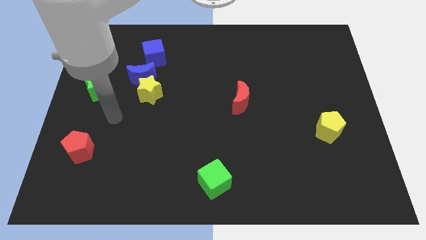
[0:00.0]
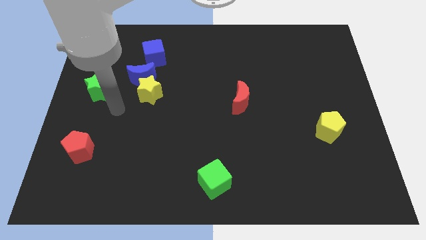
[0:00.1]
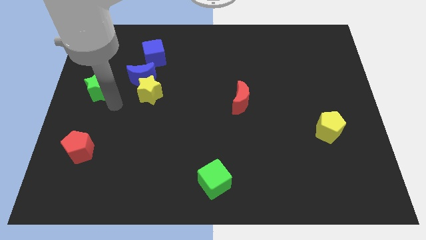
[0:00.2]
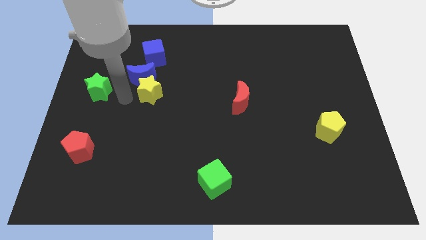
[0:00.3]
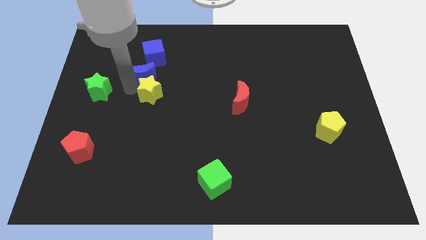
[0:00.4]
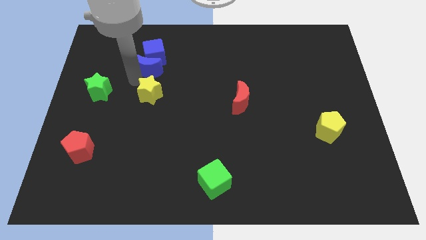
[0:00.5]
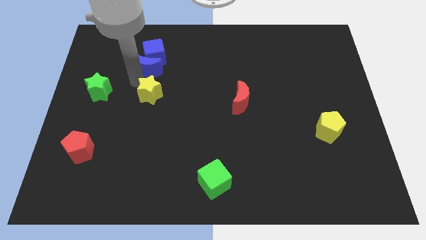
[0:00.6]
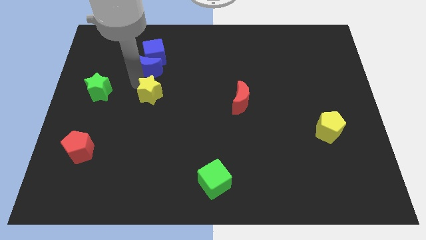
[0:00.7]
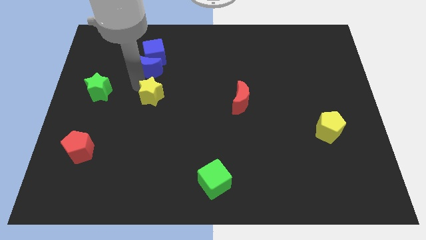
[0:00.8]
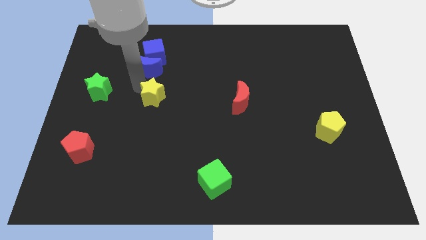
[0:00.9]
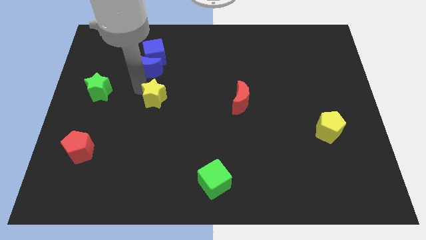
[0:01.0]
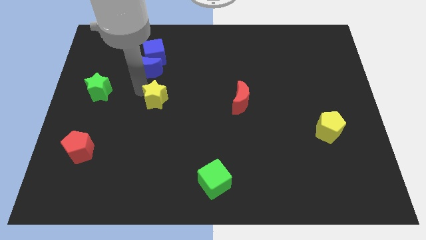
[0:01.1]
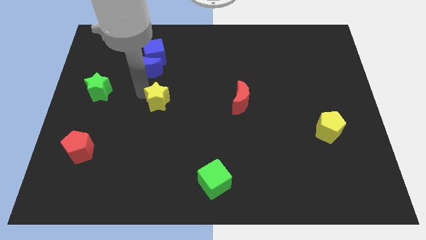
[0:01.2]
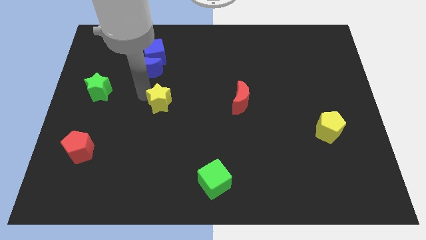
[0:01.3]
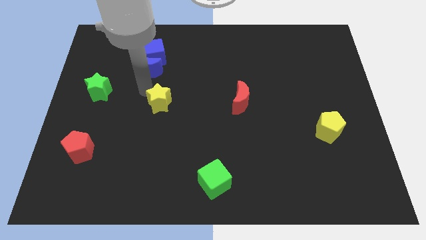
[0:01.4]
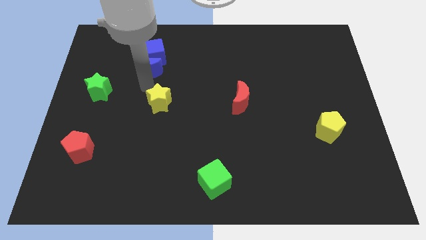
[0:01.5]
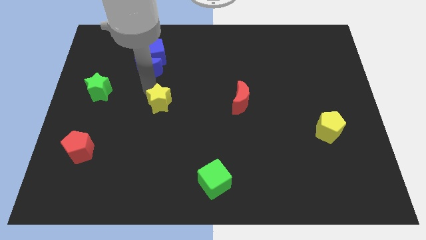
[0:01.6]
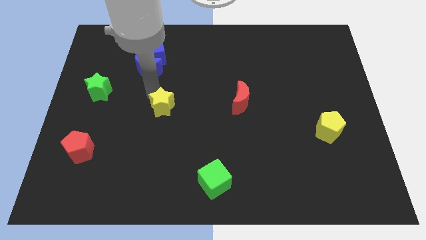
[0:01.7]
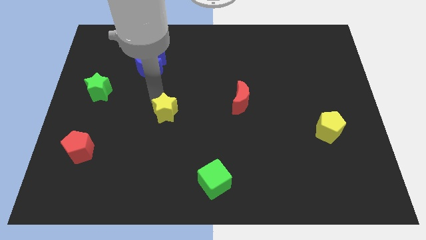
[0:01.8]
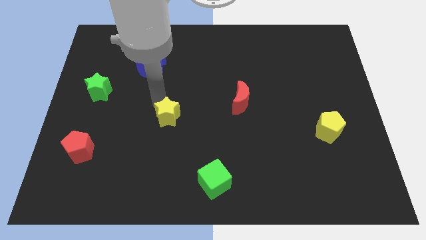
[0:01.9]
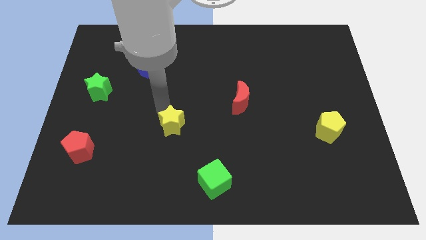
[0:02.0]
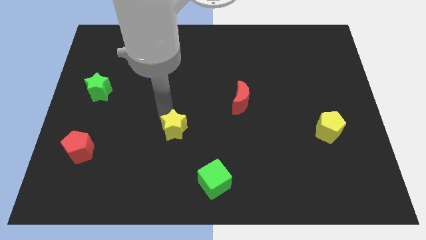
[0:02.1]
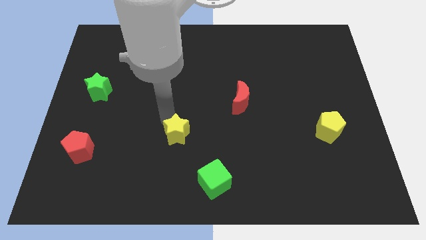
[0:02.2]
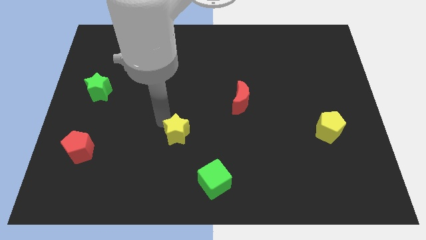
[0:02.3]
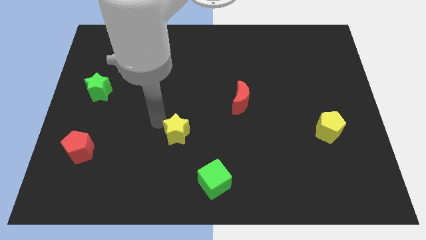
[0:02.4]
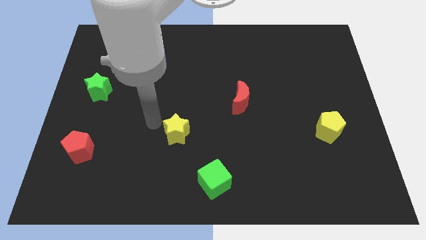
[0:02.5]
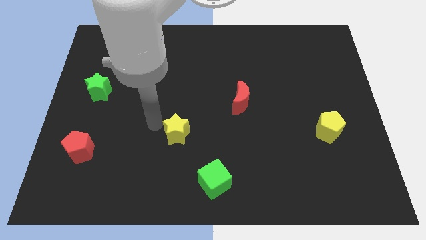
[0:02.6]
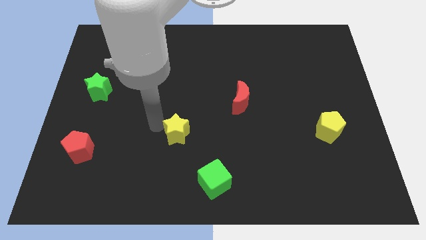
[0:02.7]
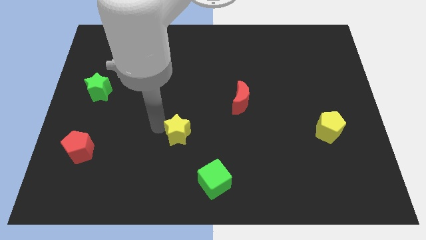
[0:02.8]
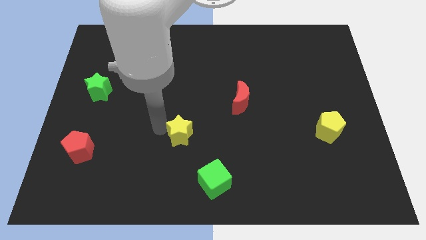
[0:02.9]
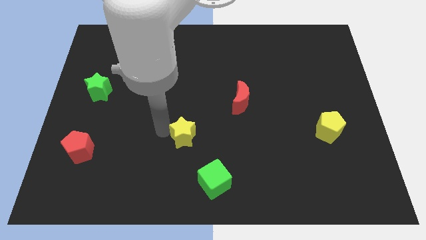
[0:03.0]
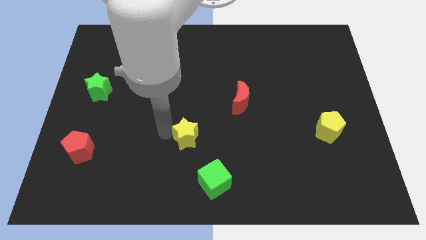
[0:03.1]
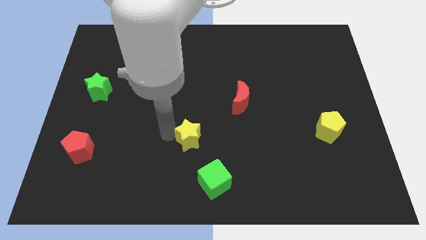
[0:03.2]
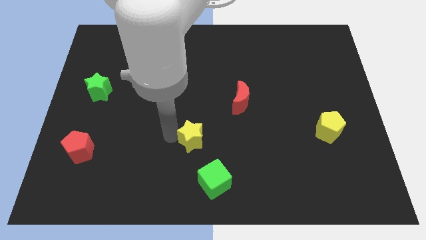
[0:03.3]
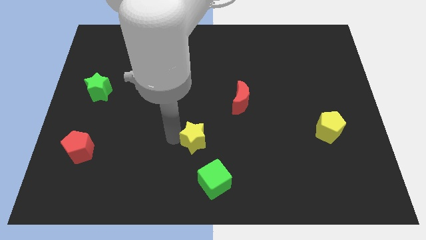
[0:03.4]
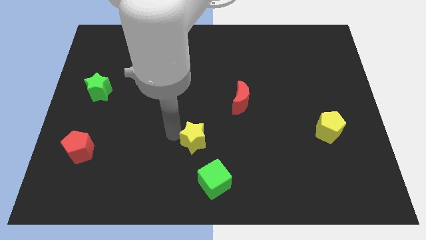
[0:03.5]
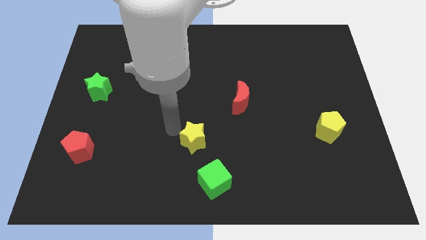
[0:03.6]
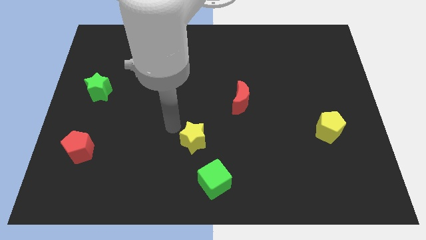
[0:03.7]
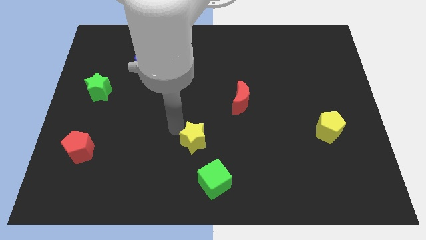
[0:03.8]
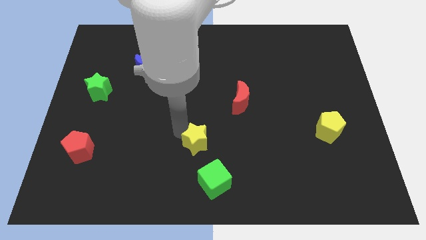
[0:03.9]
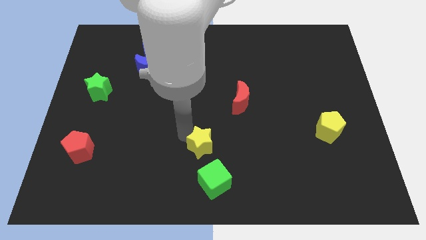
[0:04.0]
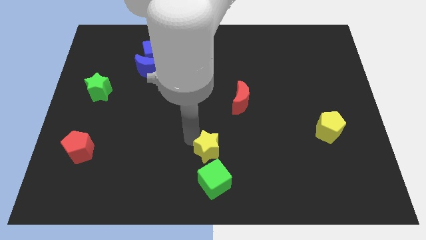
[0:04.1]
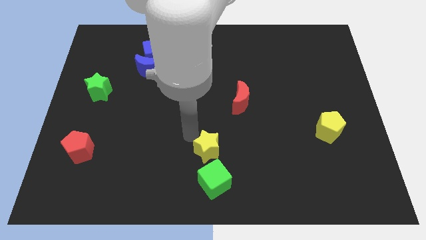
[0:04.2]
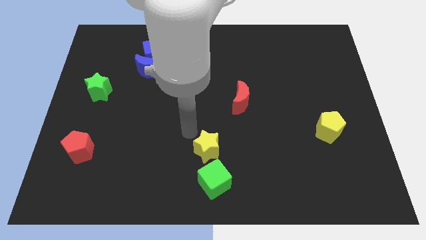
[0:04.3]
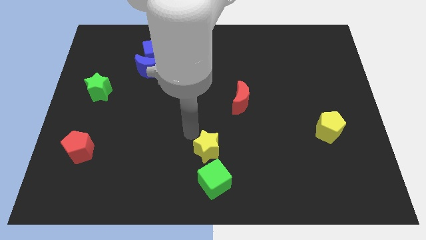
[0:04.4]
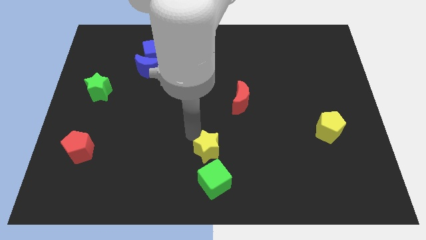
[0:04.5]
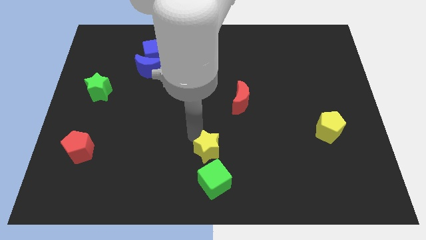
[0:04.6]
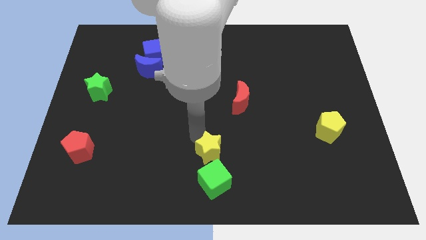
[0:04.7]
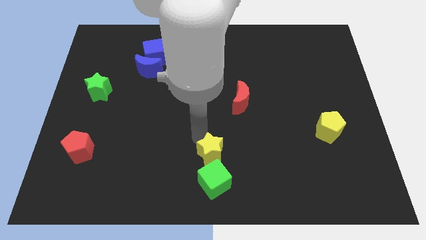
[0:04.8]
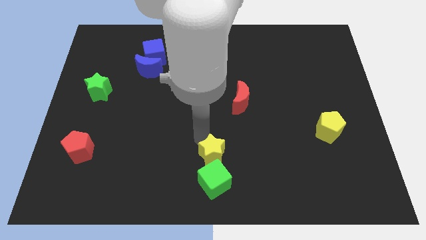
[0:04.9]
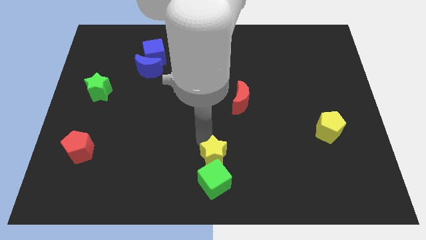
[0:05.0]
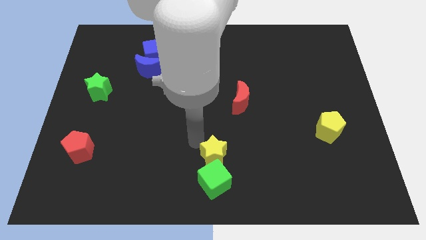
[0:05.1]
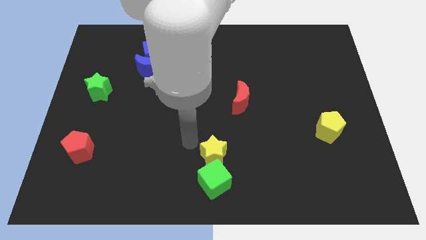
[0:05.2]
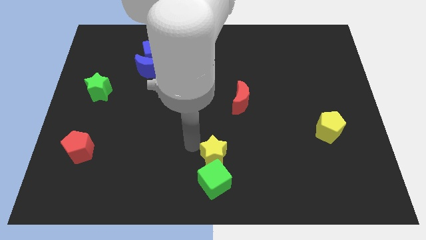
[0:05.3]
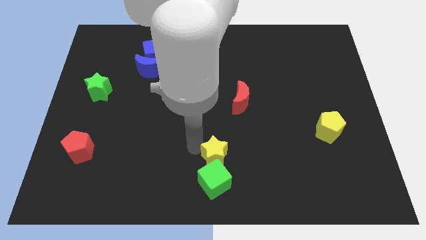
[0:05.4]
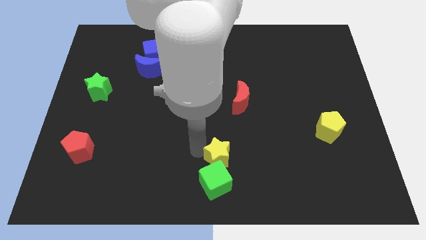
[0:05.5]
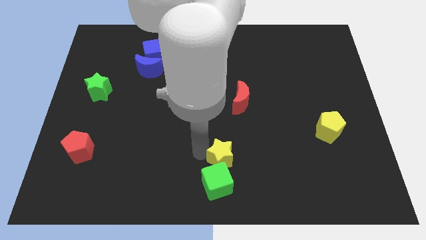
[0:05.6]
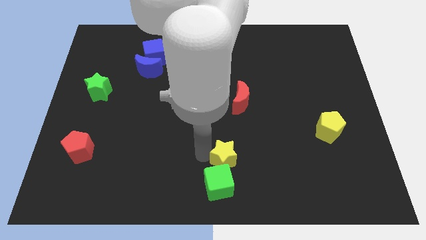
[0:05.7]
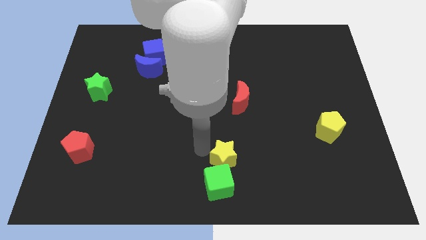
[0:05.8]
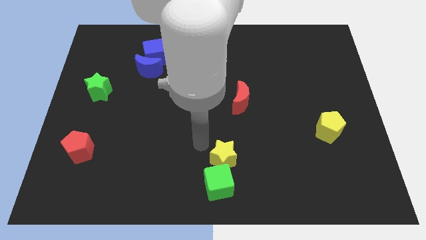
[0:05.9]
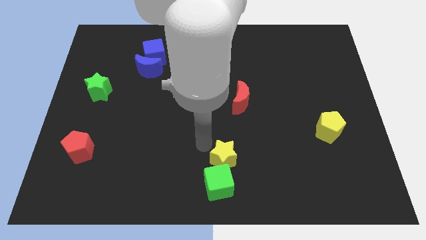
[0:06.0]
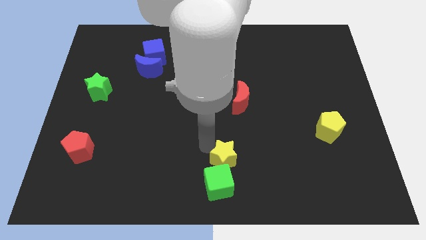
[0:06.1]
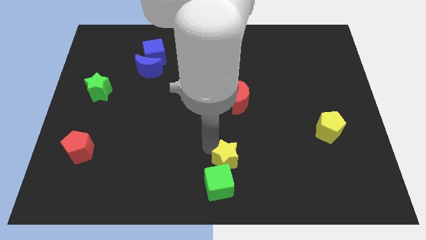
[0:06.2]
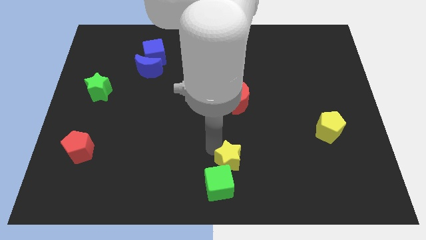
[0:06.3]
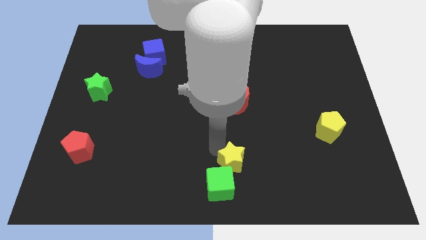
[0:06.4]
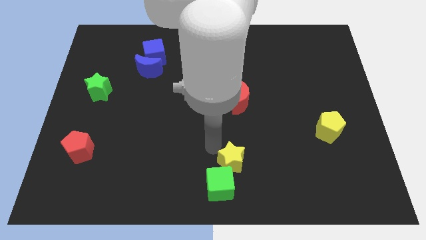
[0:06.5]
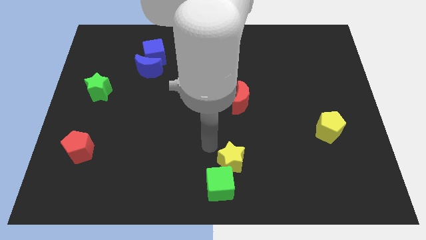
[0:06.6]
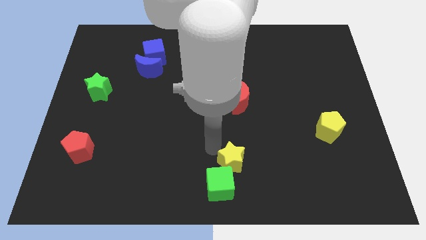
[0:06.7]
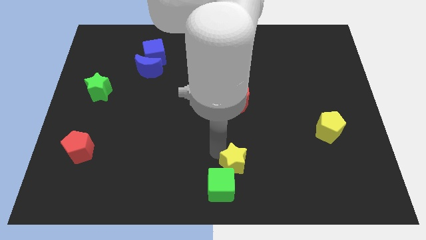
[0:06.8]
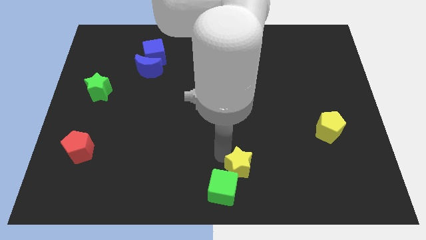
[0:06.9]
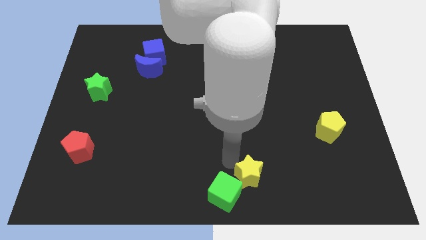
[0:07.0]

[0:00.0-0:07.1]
slide the yellow star right of the green cube
